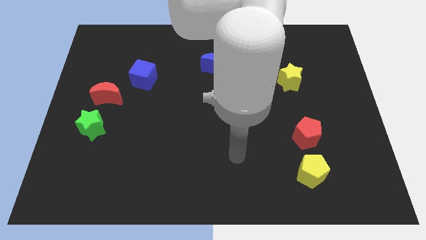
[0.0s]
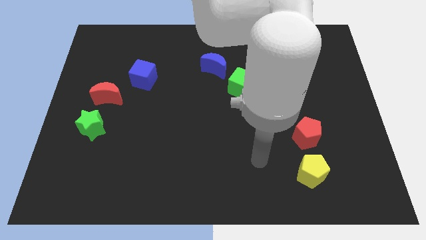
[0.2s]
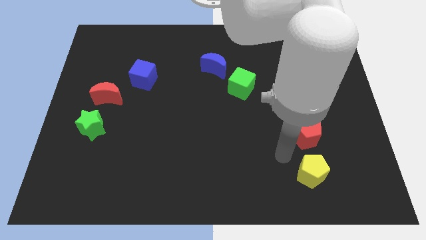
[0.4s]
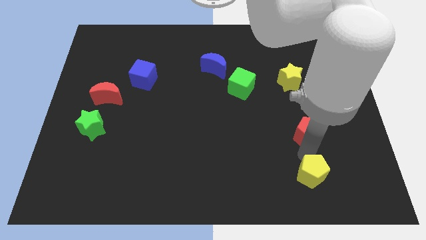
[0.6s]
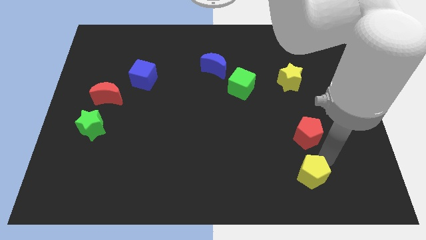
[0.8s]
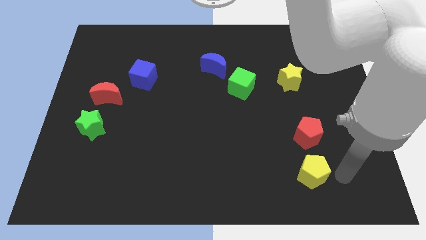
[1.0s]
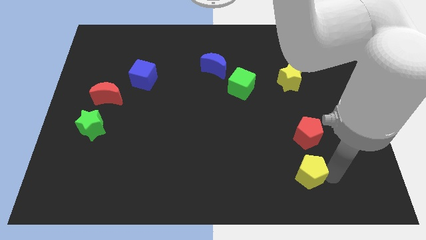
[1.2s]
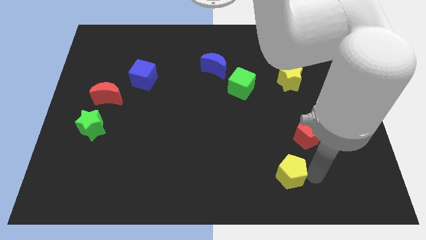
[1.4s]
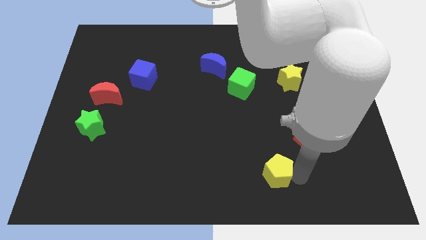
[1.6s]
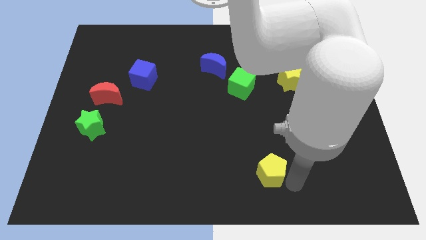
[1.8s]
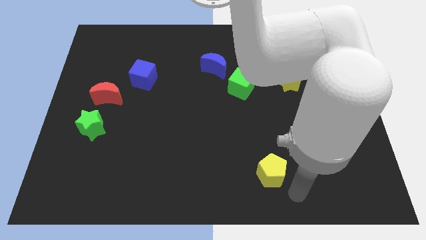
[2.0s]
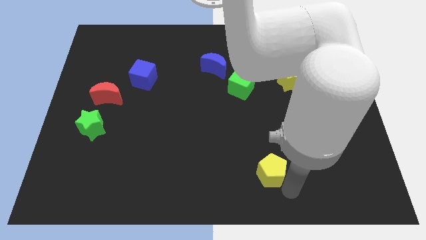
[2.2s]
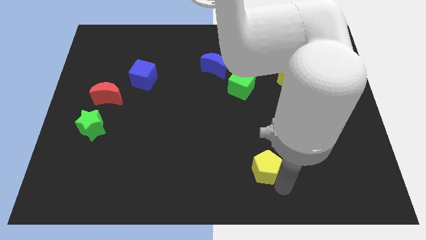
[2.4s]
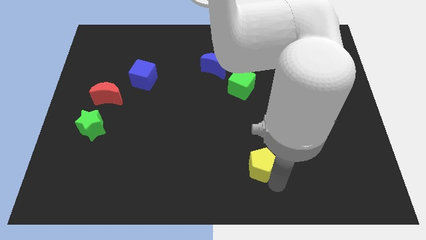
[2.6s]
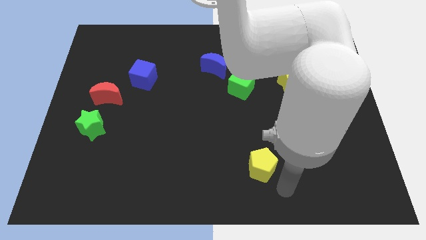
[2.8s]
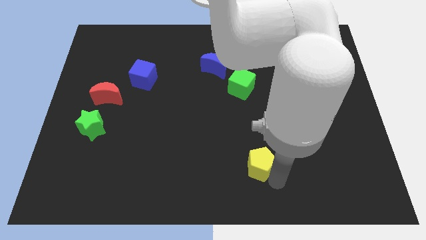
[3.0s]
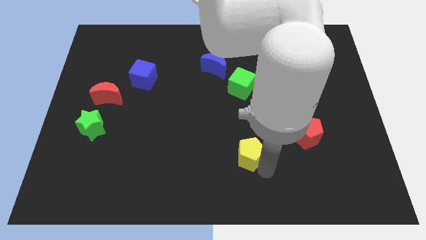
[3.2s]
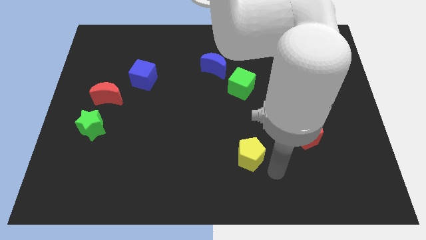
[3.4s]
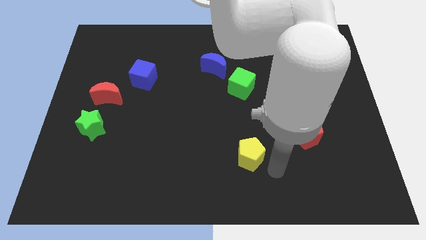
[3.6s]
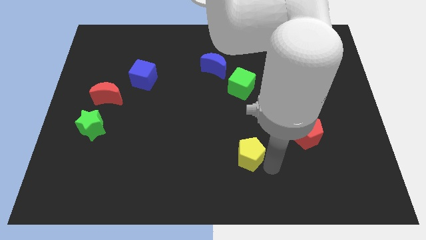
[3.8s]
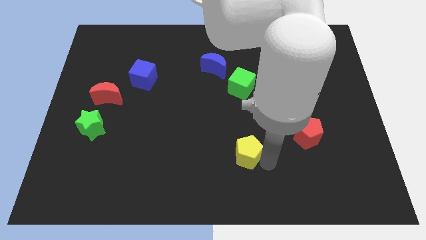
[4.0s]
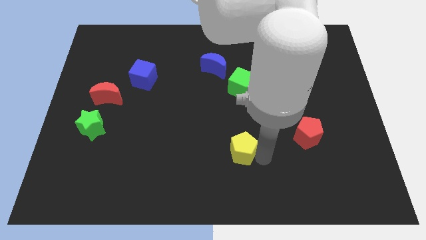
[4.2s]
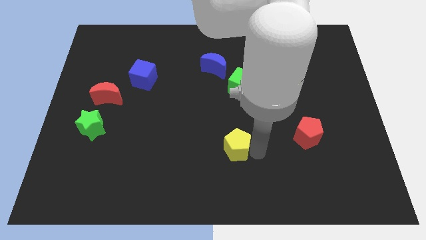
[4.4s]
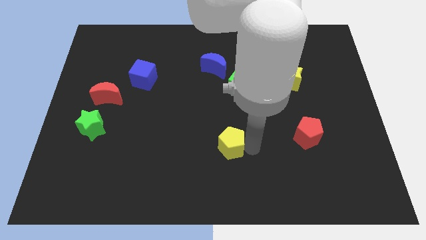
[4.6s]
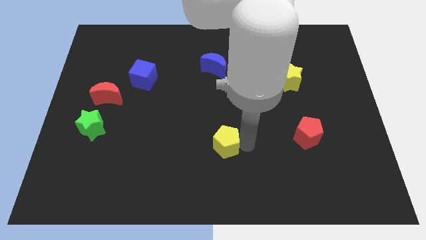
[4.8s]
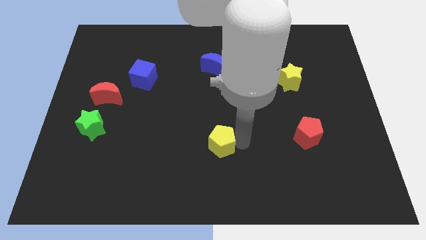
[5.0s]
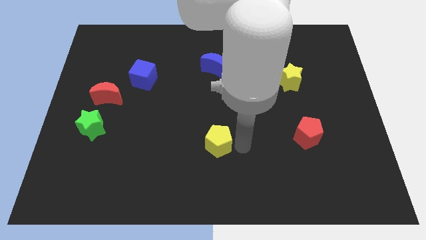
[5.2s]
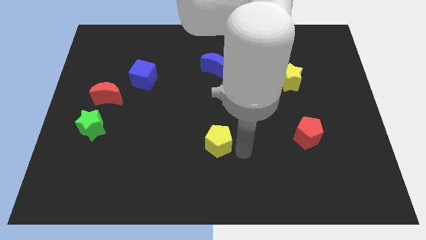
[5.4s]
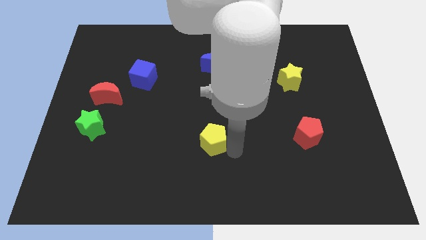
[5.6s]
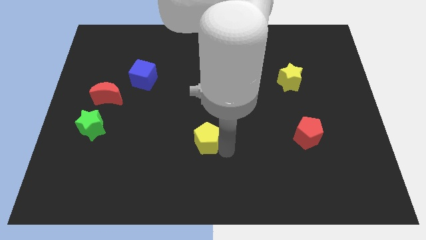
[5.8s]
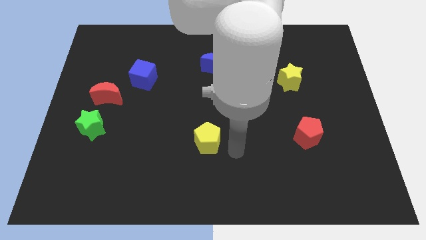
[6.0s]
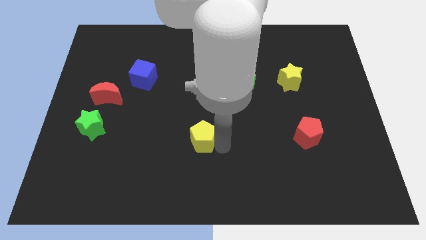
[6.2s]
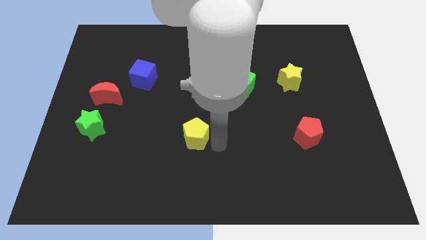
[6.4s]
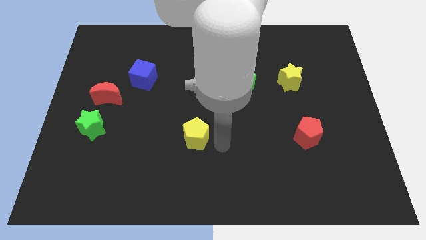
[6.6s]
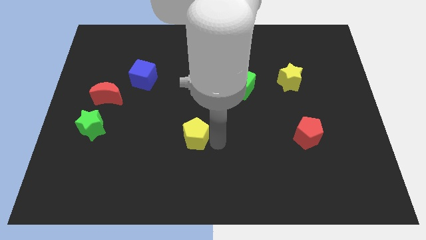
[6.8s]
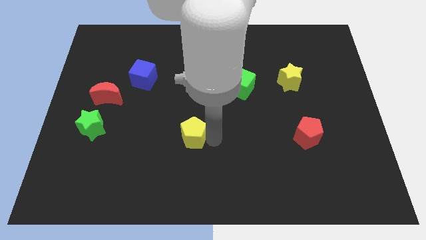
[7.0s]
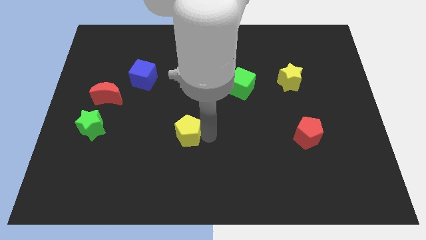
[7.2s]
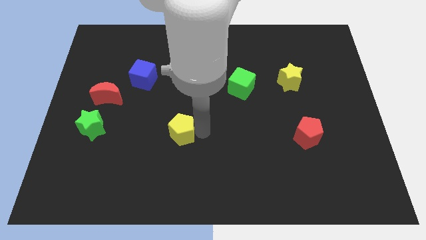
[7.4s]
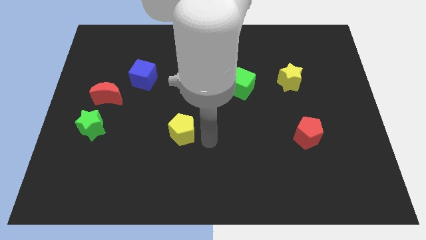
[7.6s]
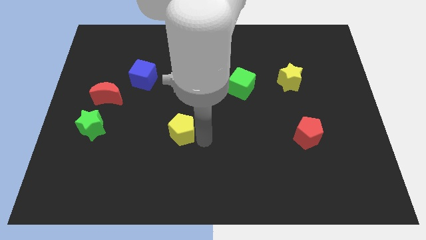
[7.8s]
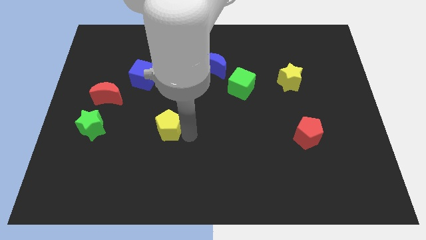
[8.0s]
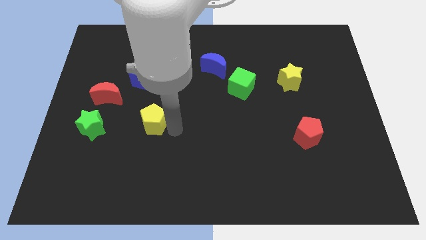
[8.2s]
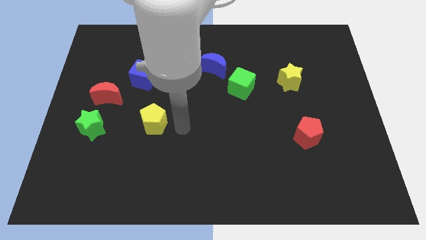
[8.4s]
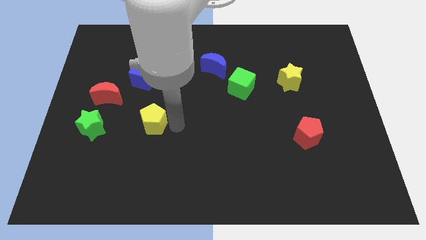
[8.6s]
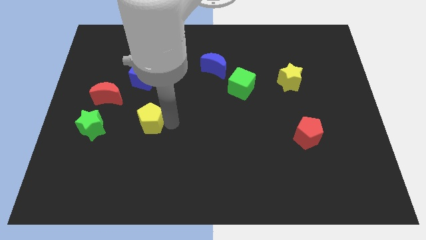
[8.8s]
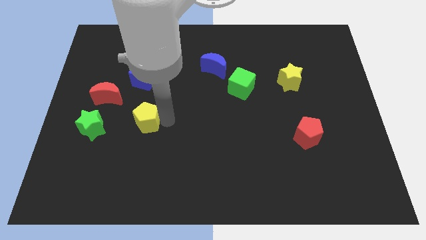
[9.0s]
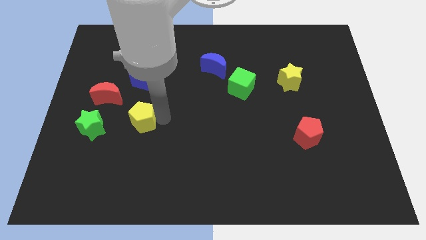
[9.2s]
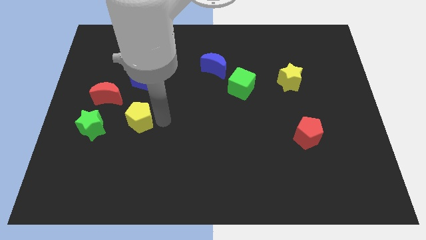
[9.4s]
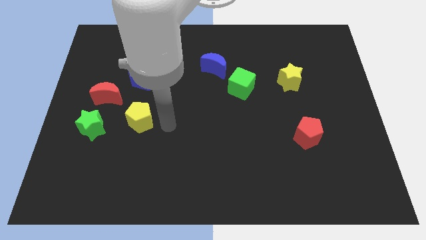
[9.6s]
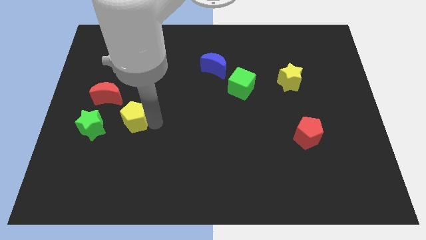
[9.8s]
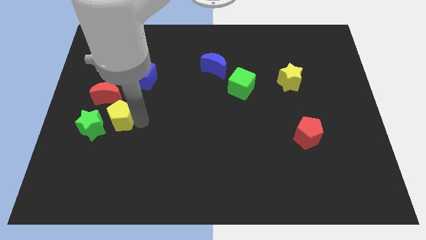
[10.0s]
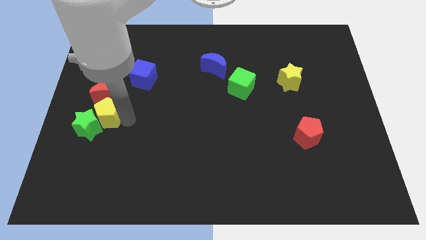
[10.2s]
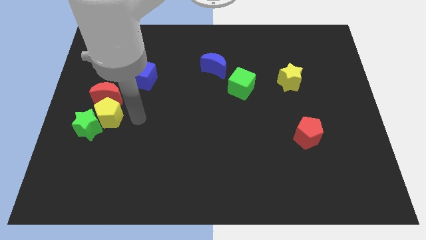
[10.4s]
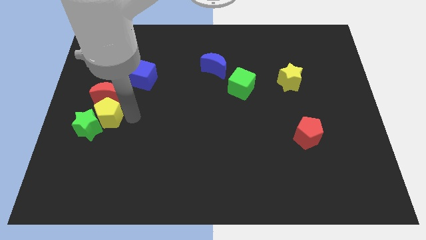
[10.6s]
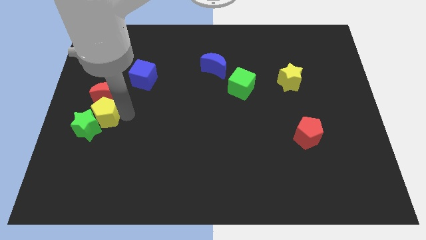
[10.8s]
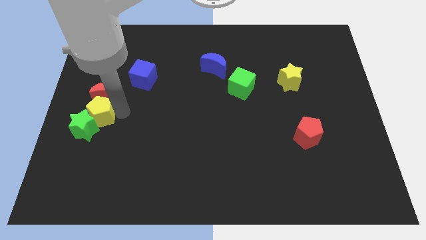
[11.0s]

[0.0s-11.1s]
put the yellow pentagon to the left side of the board
